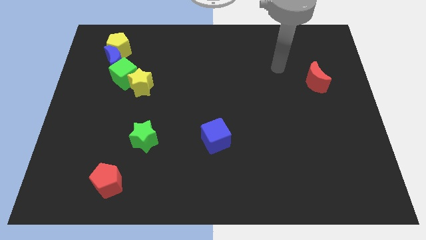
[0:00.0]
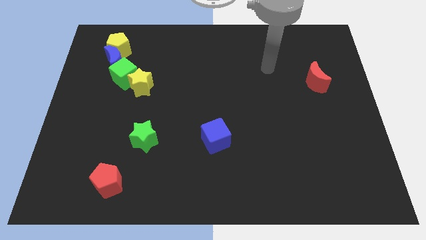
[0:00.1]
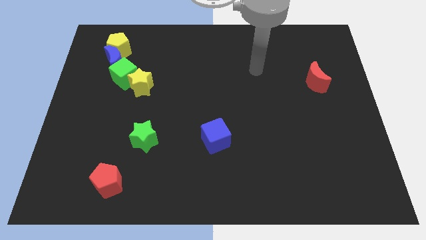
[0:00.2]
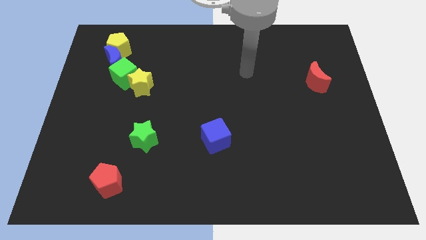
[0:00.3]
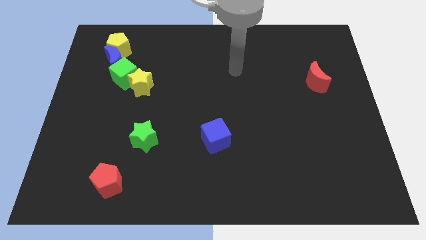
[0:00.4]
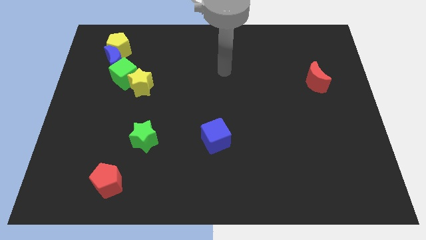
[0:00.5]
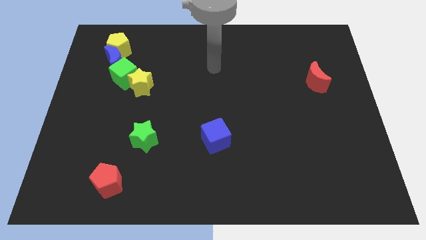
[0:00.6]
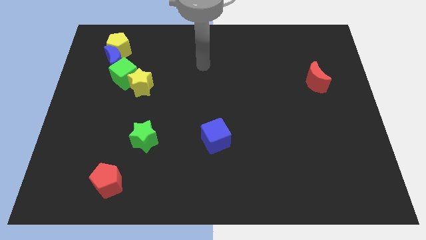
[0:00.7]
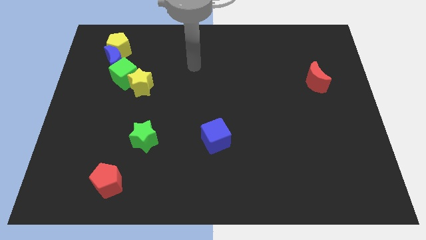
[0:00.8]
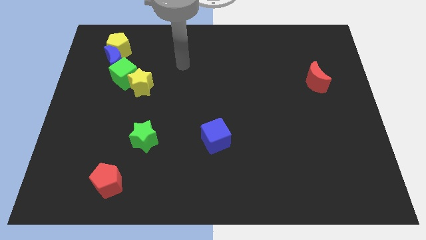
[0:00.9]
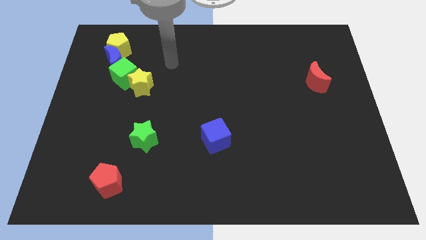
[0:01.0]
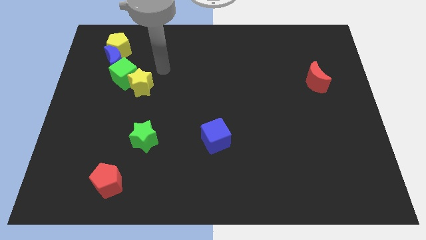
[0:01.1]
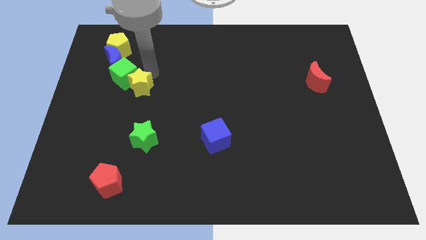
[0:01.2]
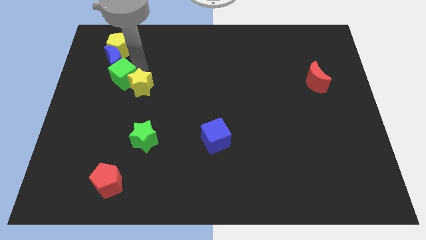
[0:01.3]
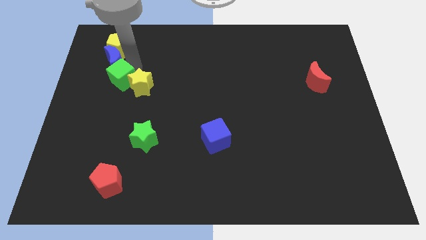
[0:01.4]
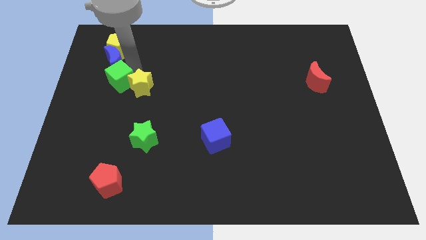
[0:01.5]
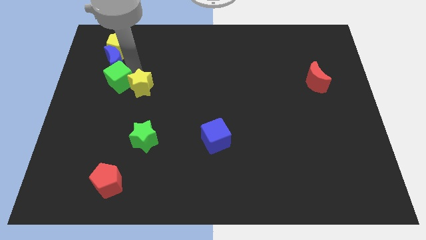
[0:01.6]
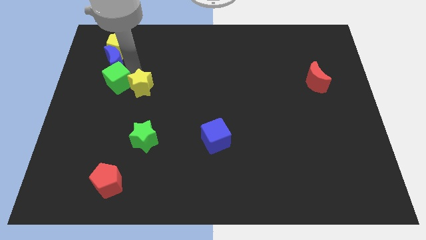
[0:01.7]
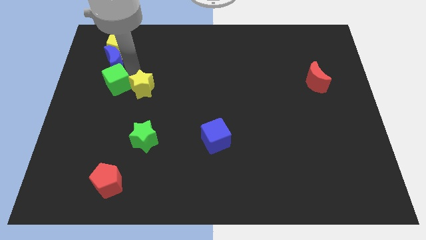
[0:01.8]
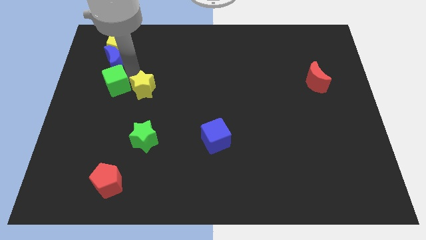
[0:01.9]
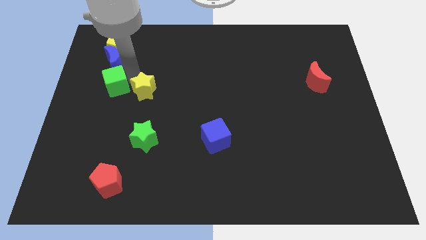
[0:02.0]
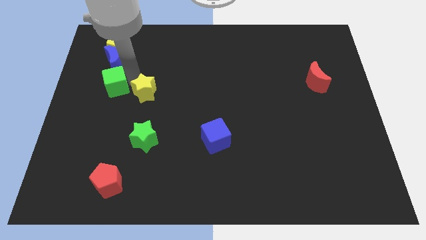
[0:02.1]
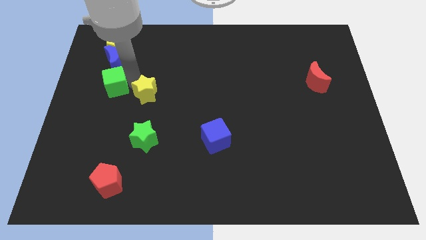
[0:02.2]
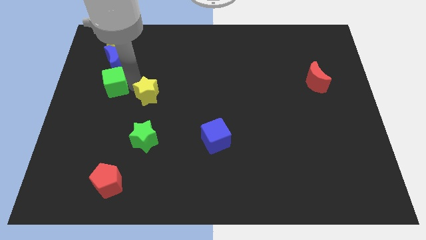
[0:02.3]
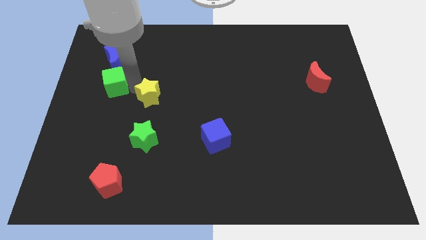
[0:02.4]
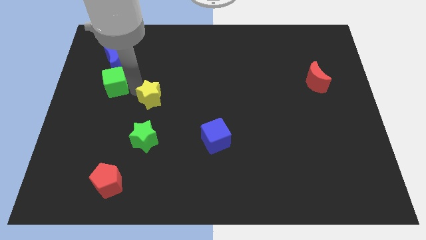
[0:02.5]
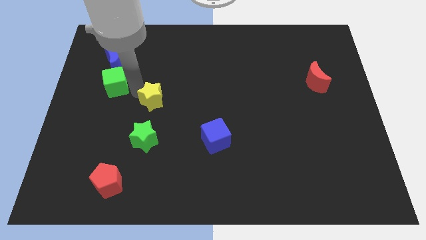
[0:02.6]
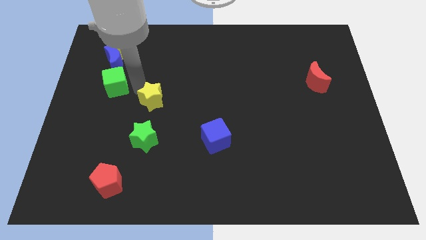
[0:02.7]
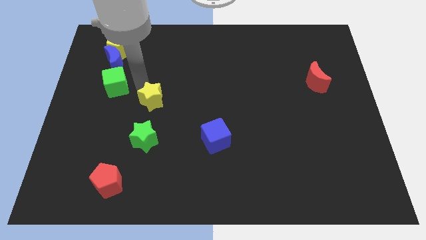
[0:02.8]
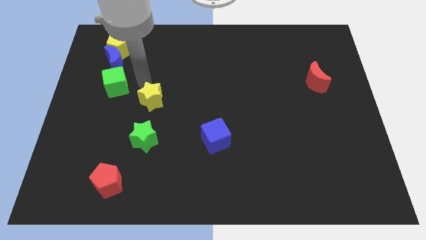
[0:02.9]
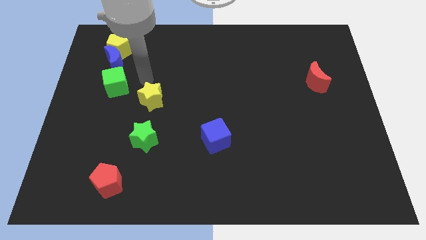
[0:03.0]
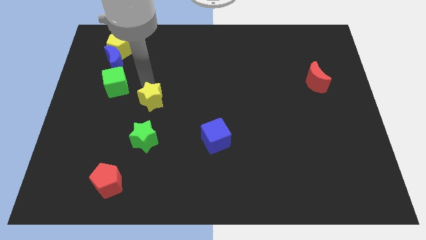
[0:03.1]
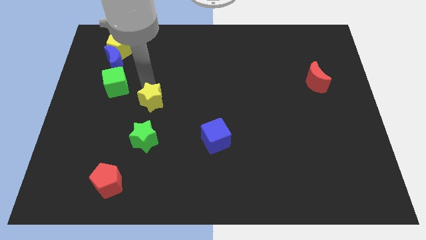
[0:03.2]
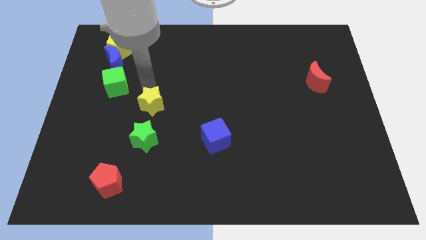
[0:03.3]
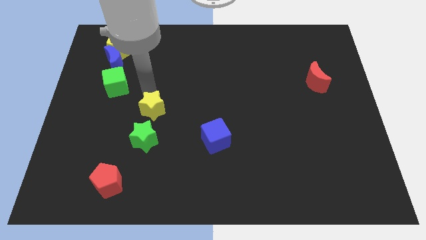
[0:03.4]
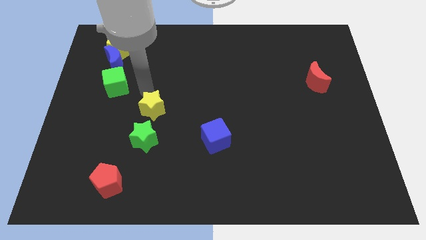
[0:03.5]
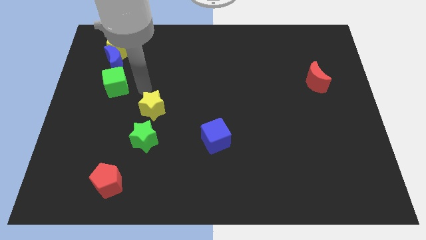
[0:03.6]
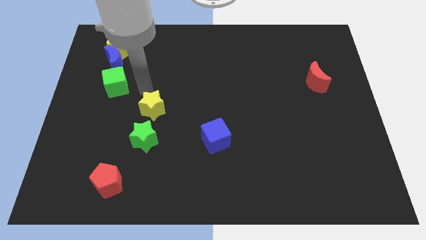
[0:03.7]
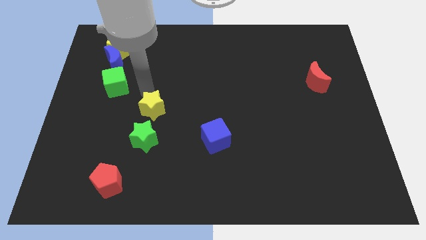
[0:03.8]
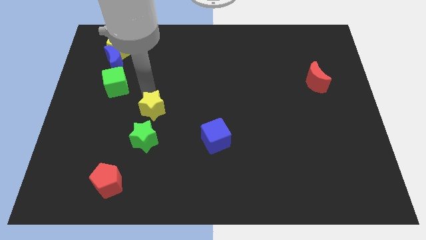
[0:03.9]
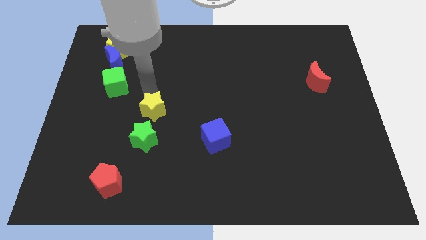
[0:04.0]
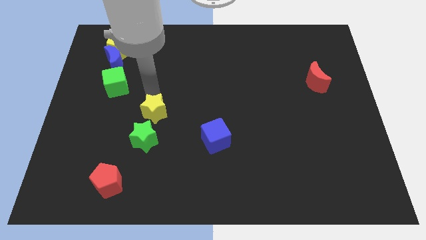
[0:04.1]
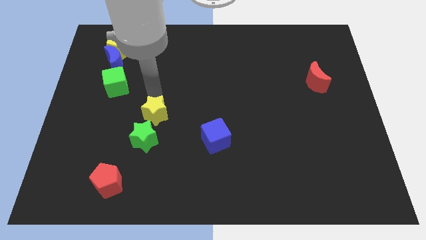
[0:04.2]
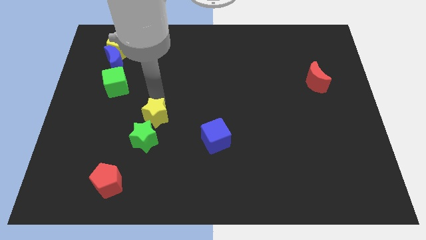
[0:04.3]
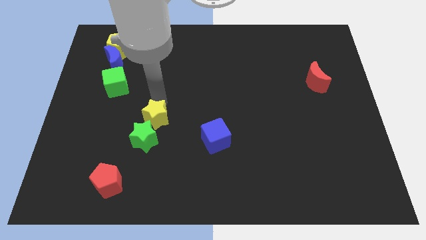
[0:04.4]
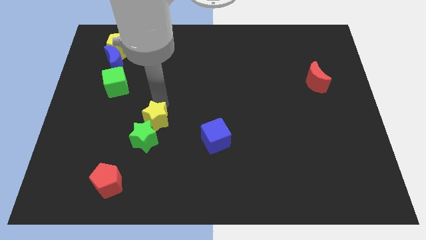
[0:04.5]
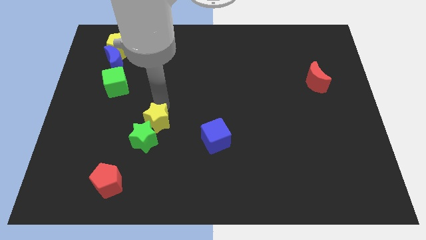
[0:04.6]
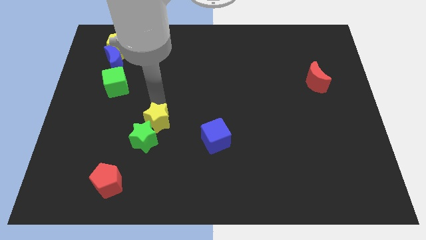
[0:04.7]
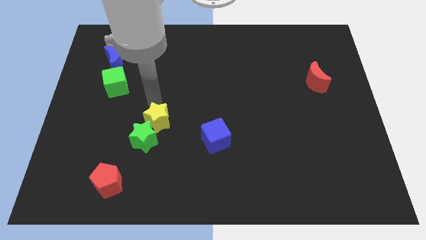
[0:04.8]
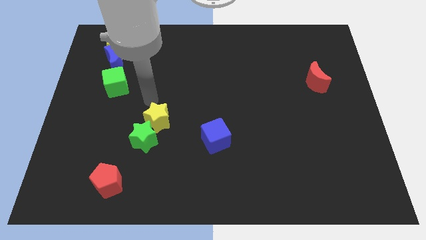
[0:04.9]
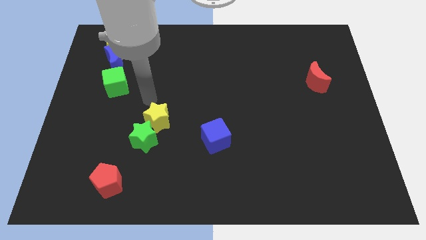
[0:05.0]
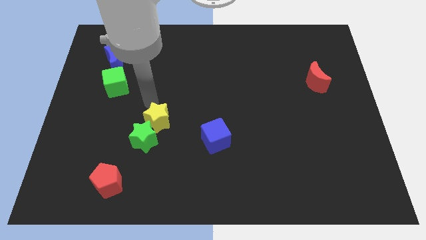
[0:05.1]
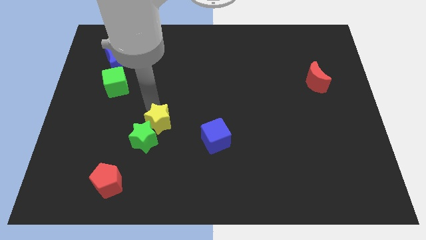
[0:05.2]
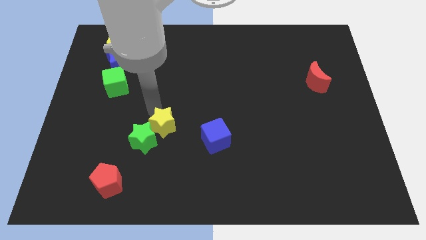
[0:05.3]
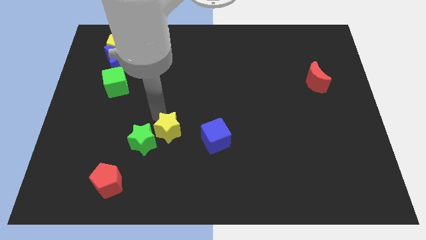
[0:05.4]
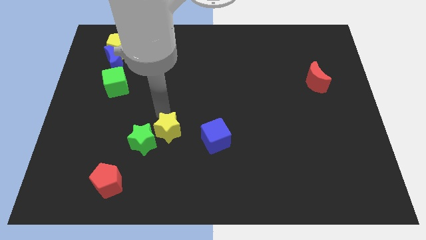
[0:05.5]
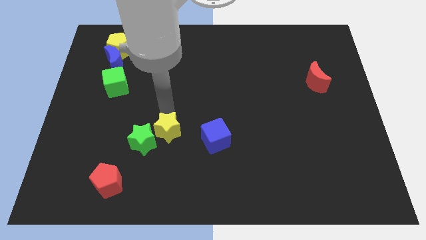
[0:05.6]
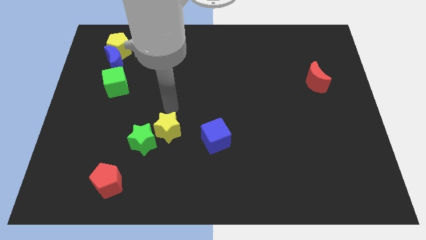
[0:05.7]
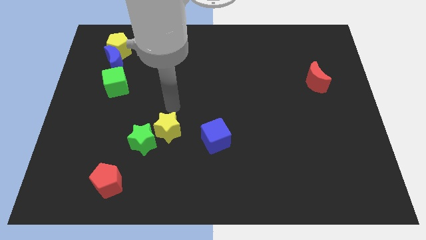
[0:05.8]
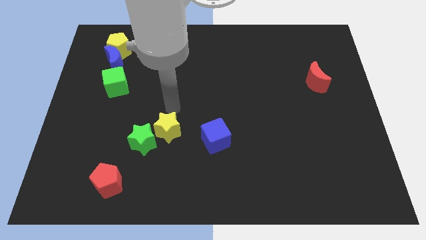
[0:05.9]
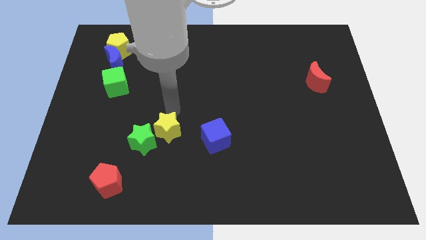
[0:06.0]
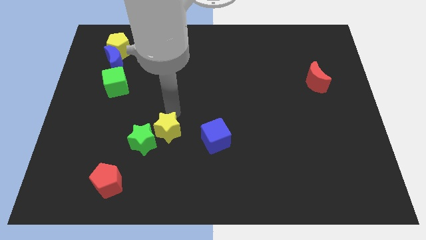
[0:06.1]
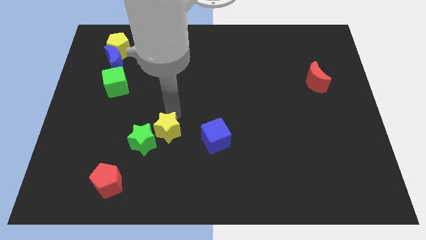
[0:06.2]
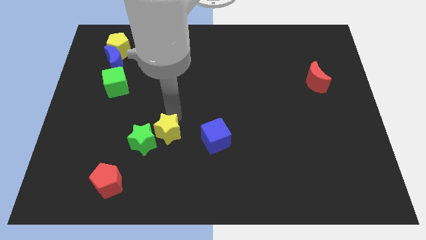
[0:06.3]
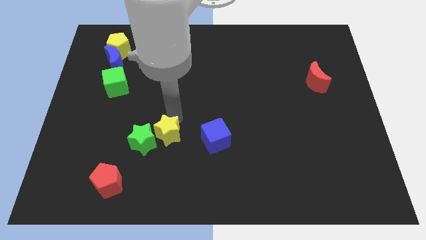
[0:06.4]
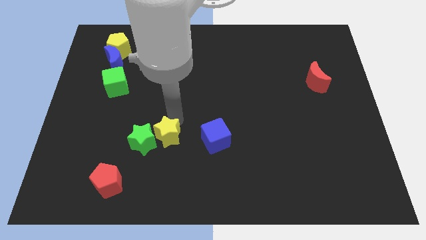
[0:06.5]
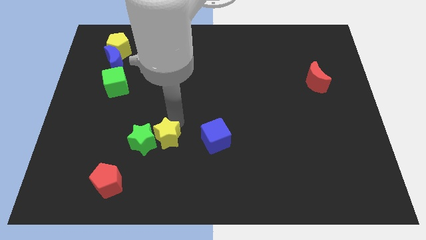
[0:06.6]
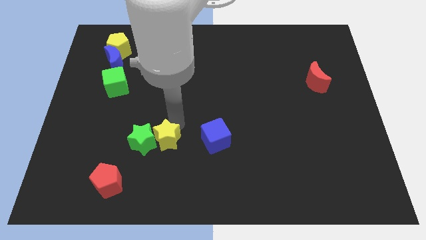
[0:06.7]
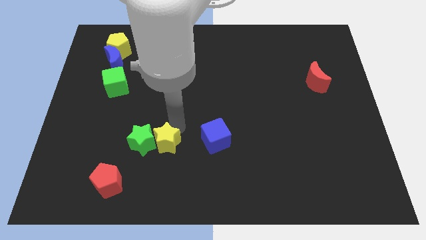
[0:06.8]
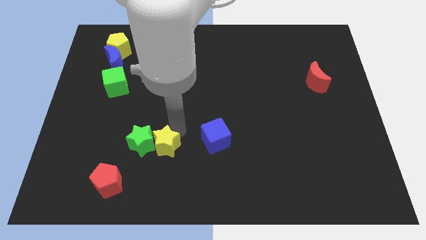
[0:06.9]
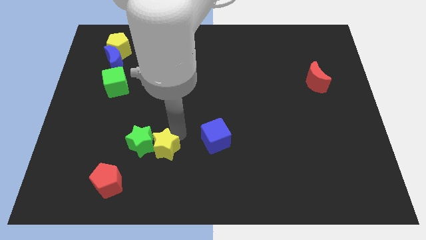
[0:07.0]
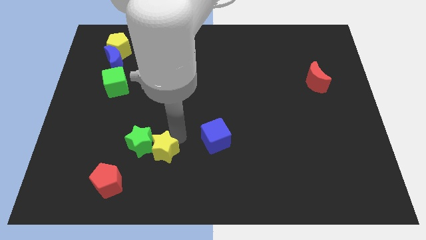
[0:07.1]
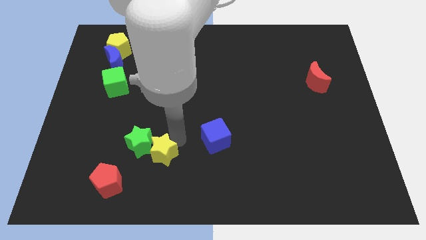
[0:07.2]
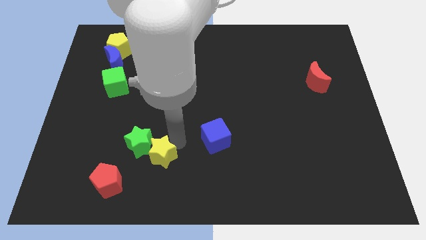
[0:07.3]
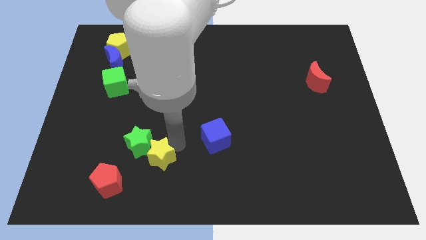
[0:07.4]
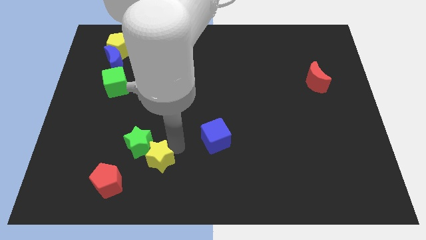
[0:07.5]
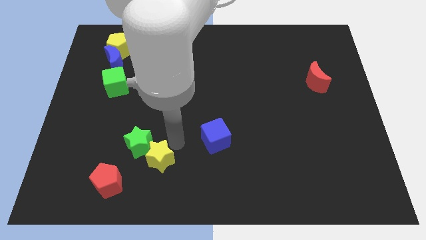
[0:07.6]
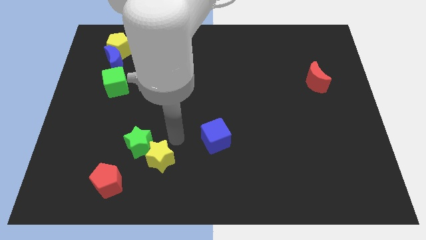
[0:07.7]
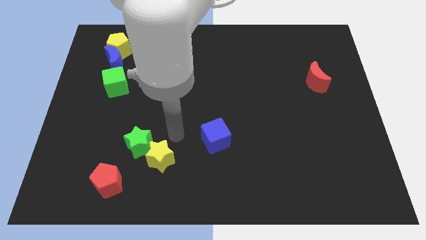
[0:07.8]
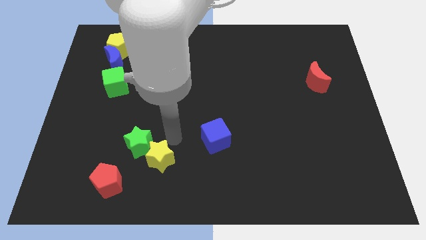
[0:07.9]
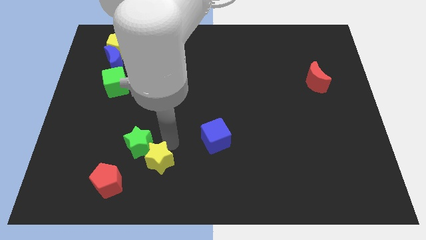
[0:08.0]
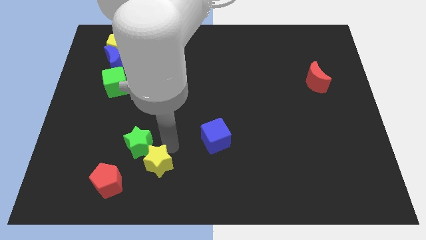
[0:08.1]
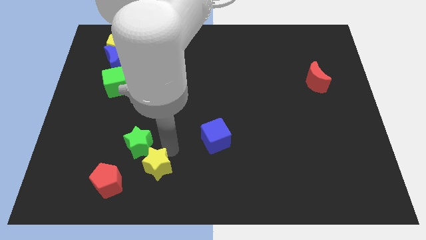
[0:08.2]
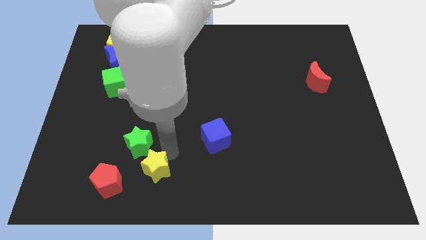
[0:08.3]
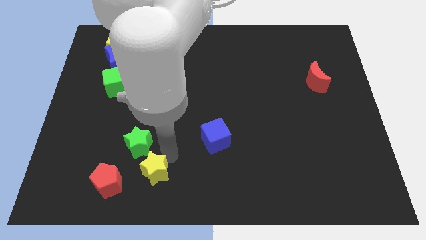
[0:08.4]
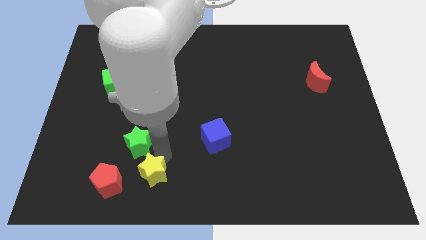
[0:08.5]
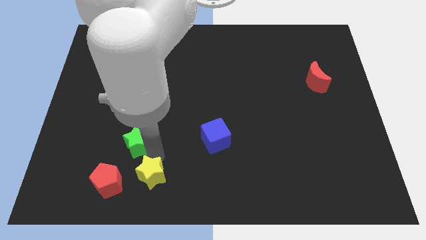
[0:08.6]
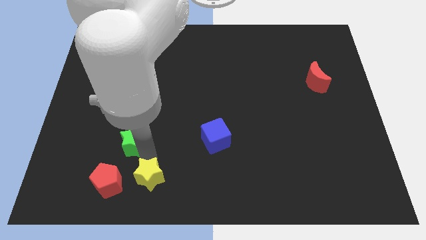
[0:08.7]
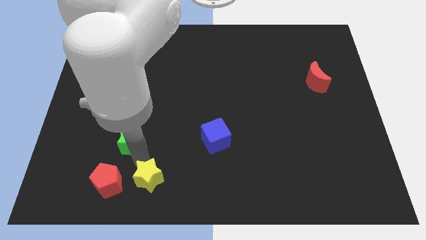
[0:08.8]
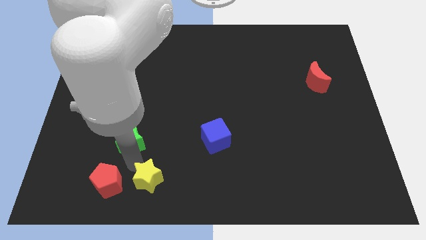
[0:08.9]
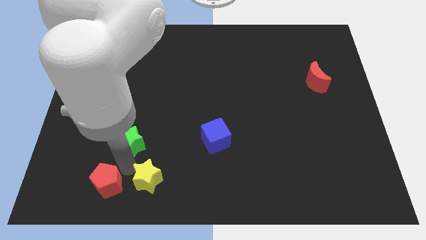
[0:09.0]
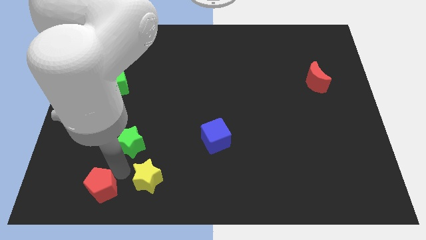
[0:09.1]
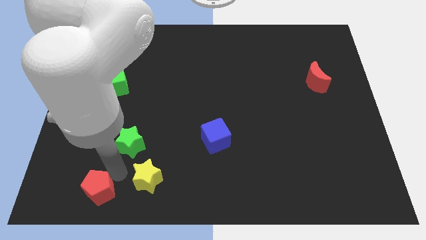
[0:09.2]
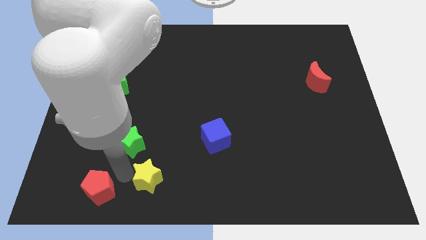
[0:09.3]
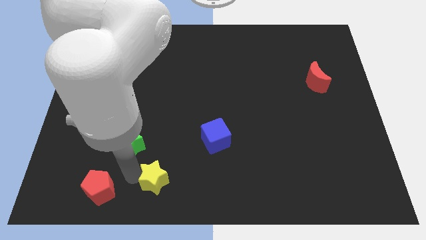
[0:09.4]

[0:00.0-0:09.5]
push the yellow star to the bottom side
